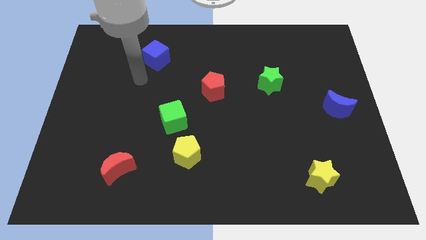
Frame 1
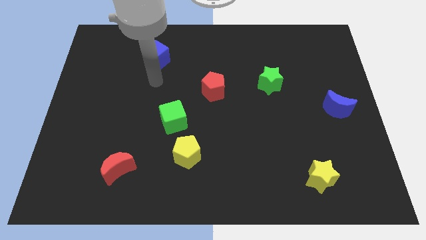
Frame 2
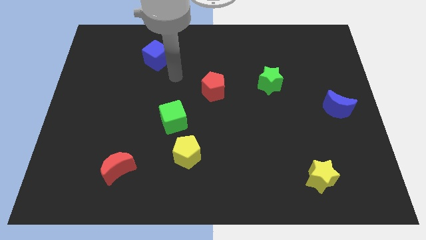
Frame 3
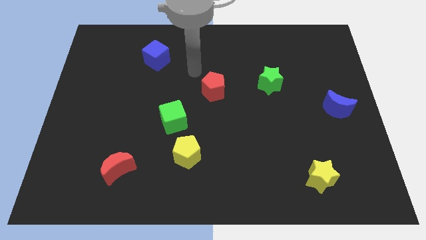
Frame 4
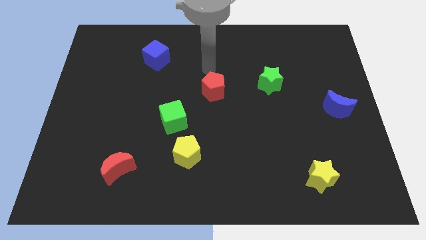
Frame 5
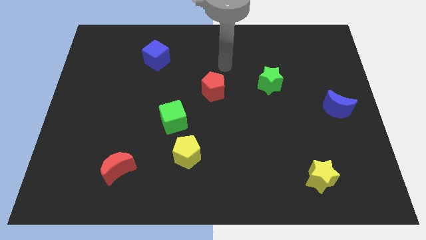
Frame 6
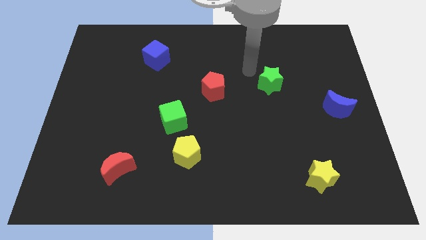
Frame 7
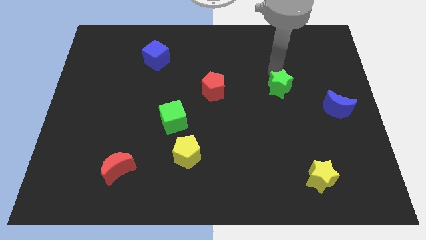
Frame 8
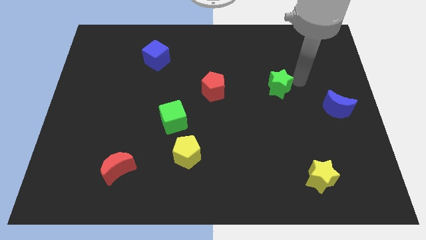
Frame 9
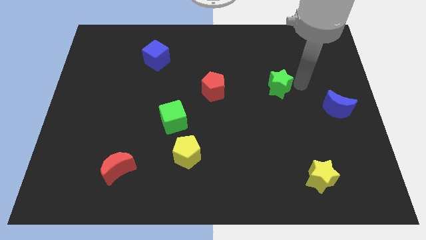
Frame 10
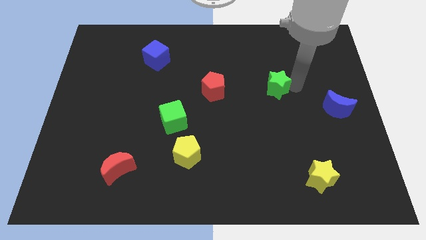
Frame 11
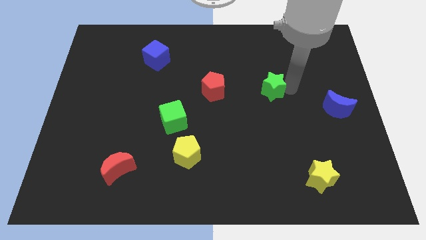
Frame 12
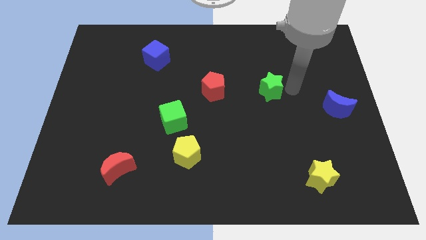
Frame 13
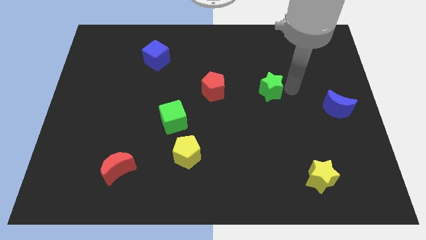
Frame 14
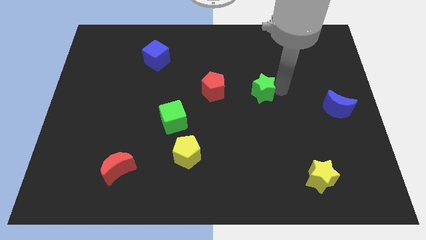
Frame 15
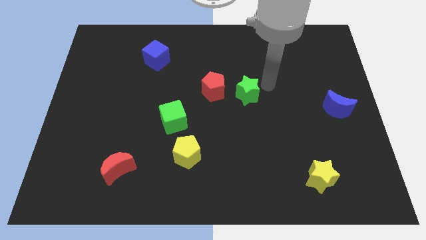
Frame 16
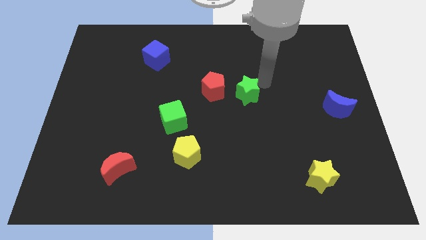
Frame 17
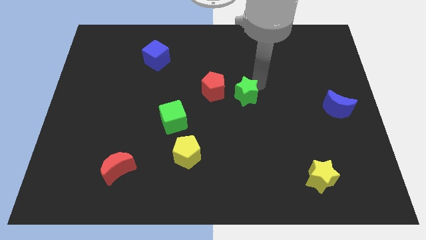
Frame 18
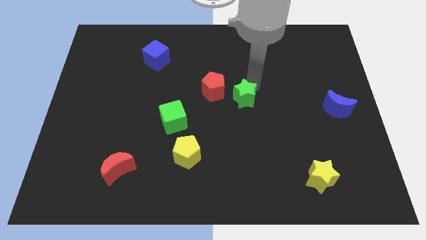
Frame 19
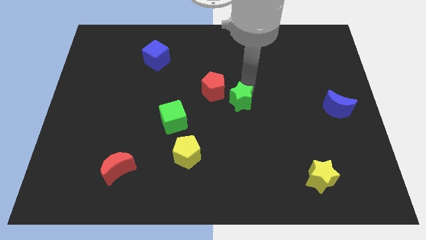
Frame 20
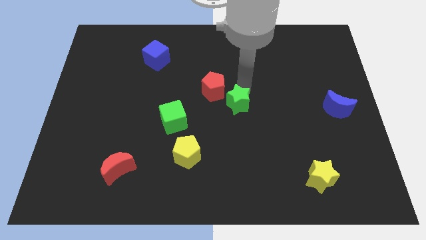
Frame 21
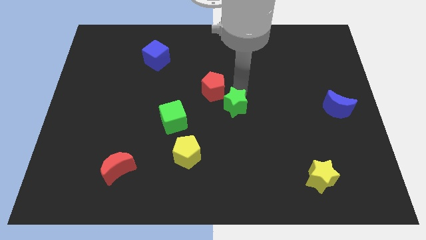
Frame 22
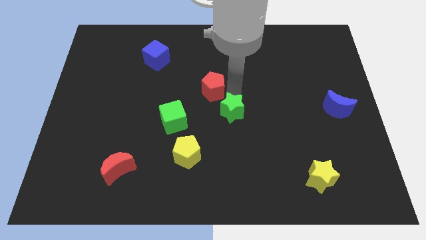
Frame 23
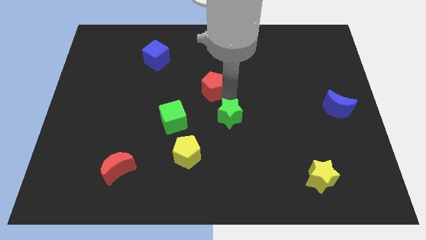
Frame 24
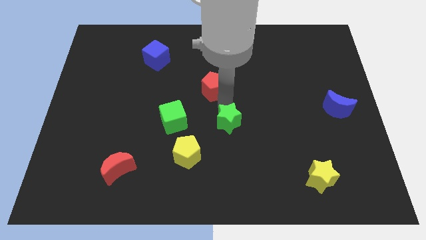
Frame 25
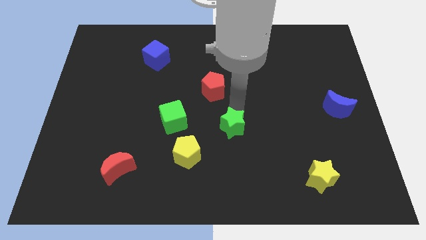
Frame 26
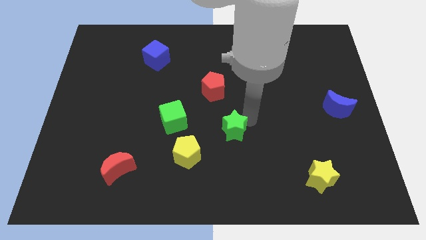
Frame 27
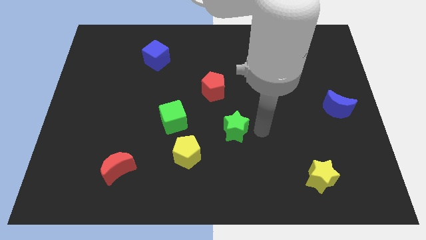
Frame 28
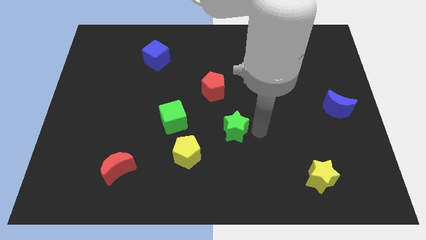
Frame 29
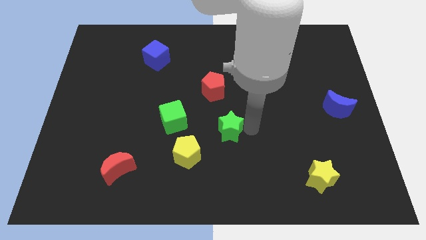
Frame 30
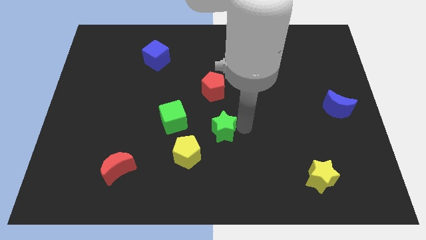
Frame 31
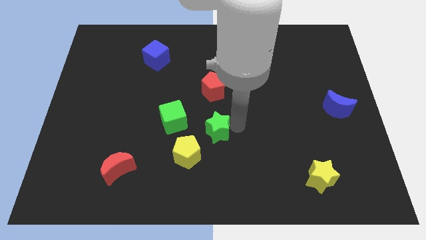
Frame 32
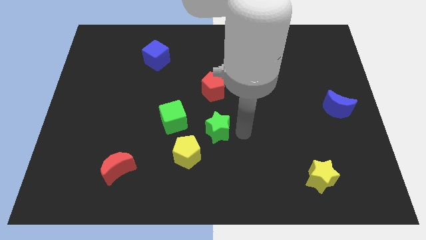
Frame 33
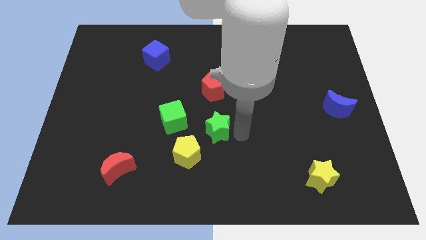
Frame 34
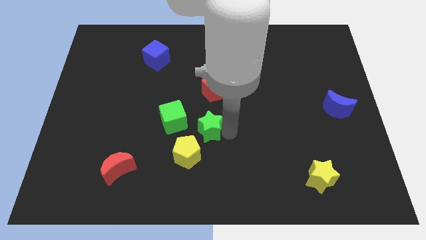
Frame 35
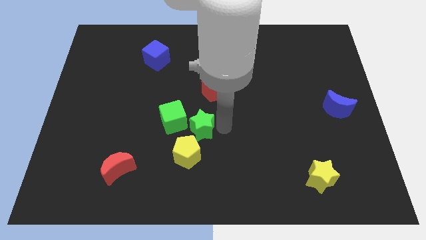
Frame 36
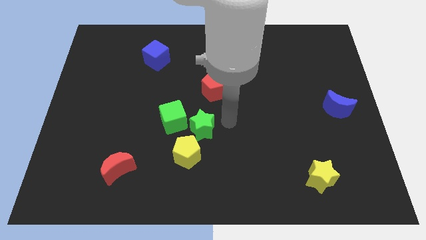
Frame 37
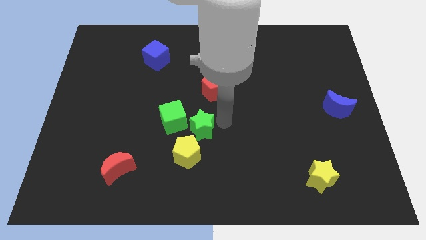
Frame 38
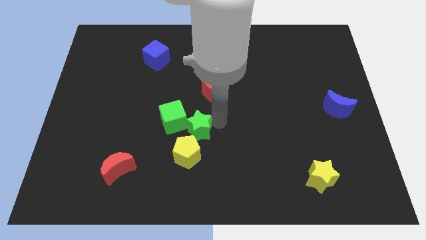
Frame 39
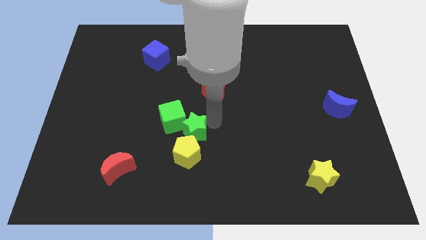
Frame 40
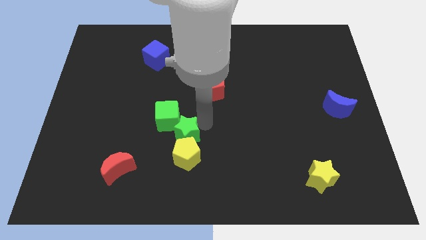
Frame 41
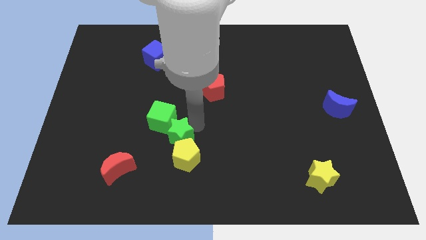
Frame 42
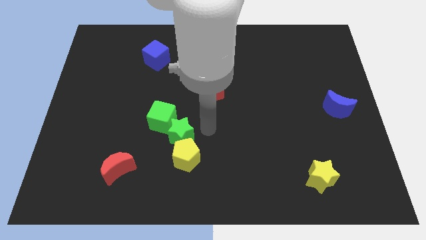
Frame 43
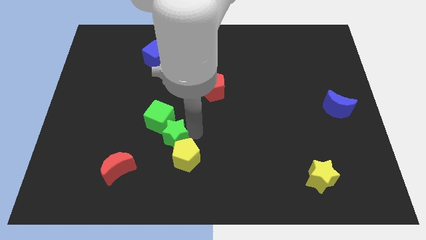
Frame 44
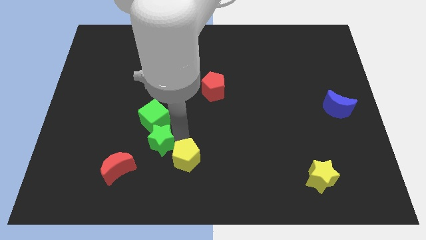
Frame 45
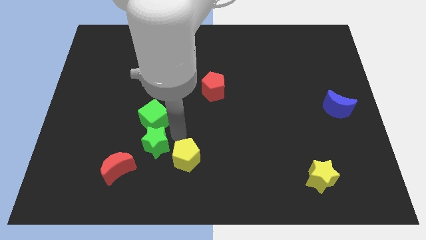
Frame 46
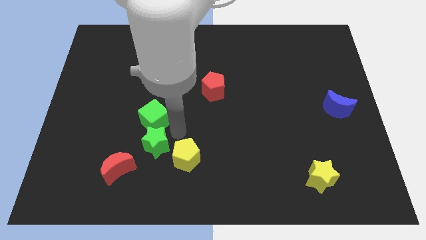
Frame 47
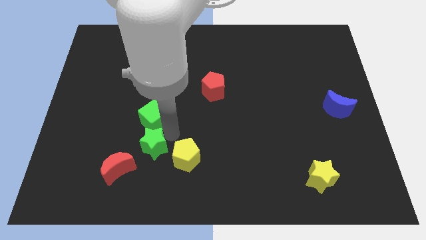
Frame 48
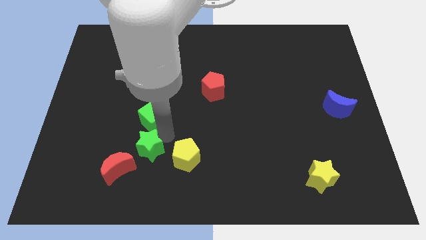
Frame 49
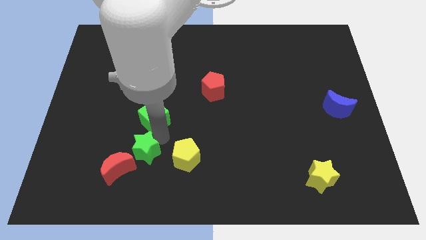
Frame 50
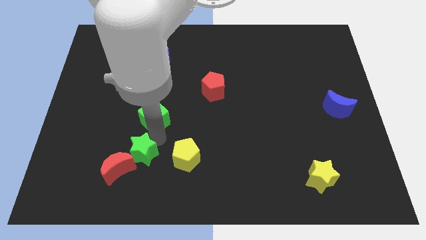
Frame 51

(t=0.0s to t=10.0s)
slide the green star next to the red moon

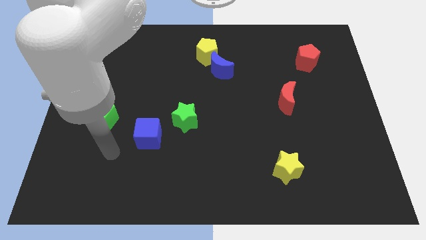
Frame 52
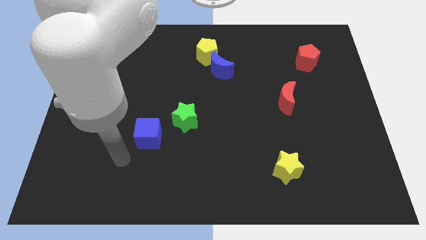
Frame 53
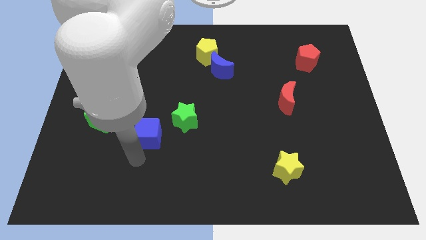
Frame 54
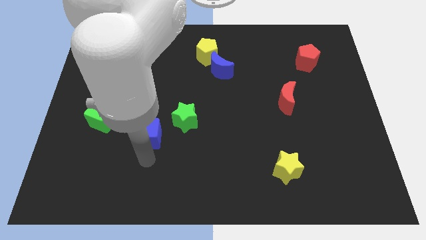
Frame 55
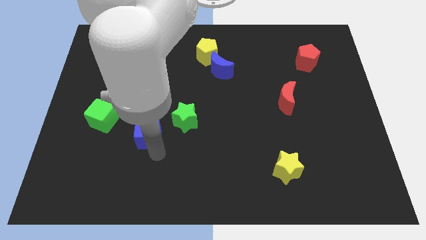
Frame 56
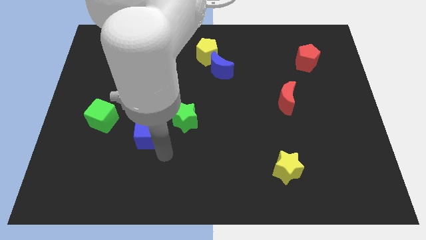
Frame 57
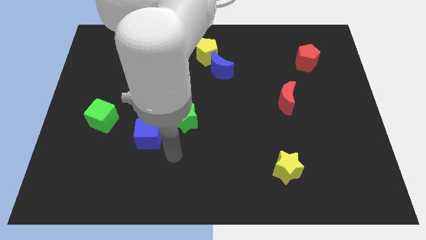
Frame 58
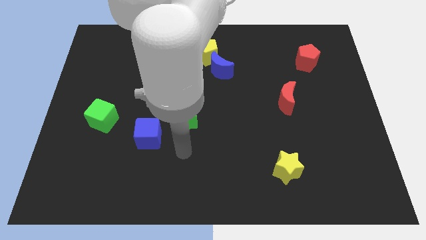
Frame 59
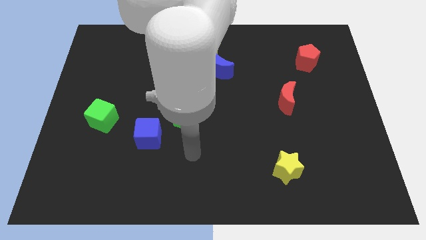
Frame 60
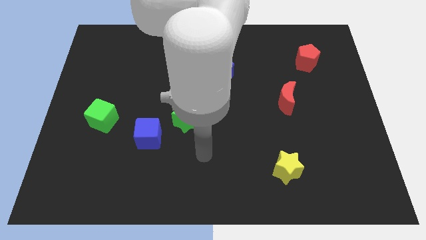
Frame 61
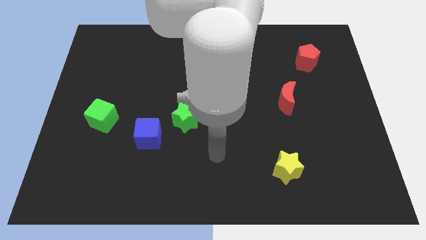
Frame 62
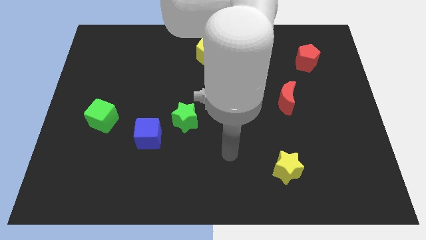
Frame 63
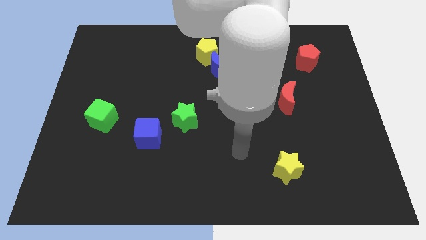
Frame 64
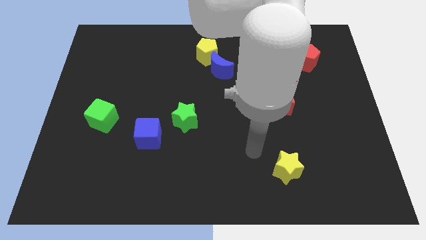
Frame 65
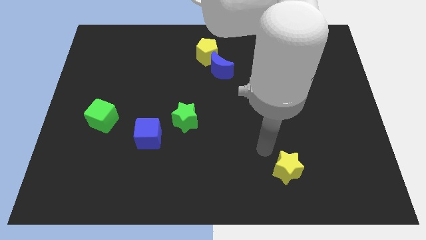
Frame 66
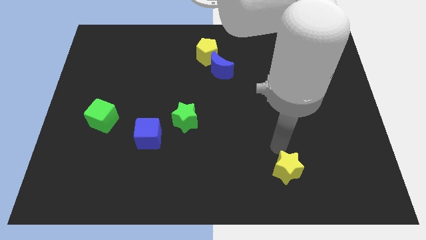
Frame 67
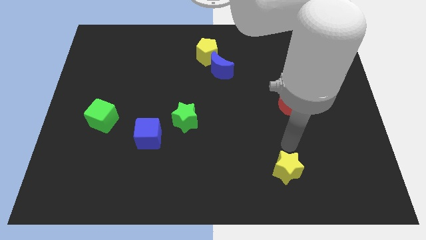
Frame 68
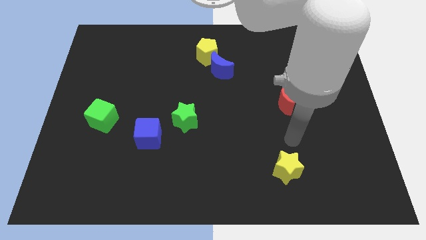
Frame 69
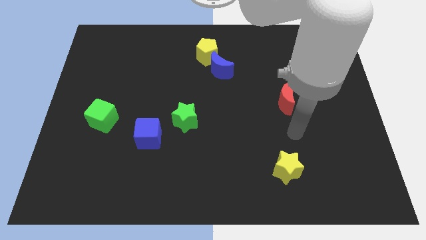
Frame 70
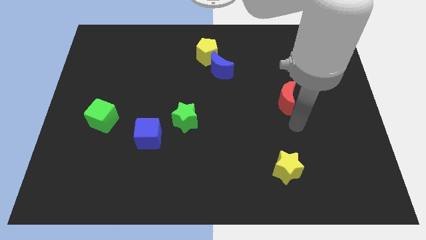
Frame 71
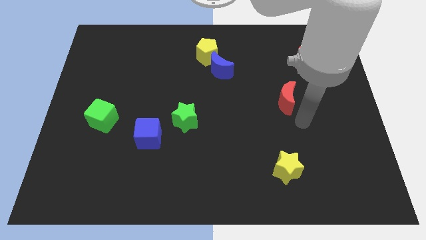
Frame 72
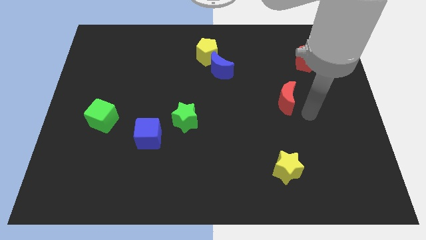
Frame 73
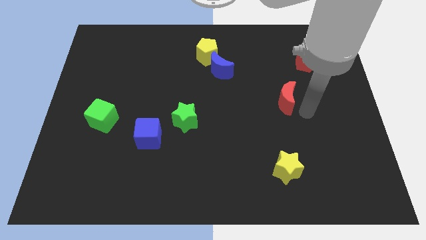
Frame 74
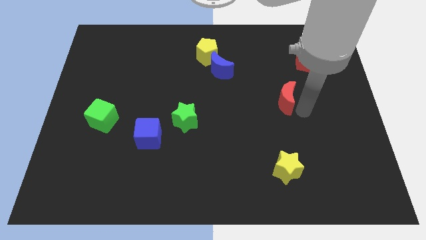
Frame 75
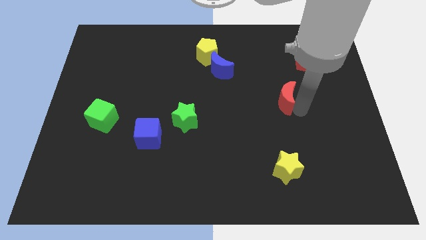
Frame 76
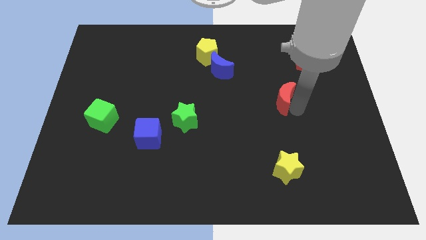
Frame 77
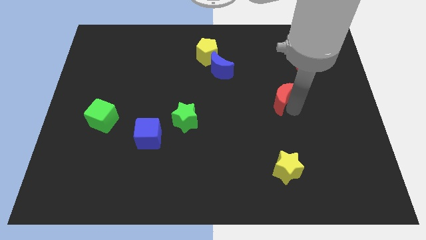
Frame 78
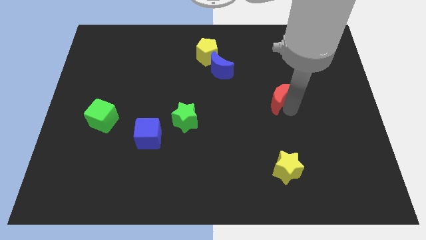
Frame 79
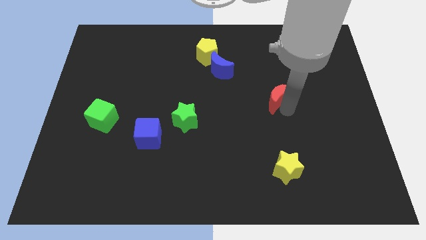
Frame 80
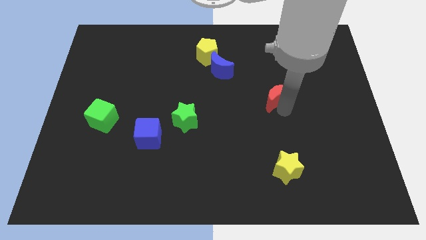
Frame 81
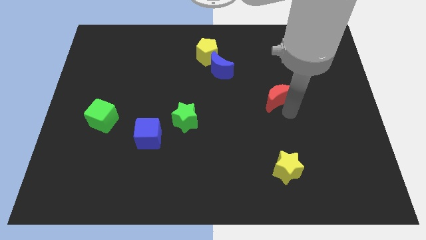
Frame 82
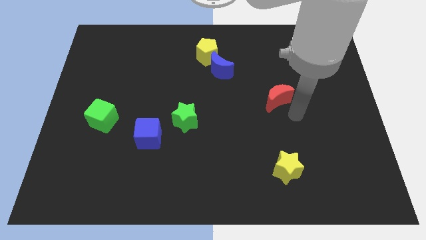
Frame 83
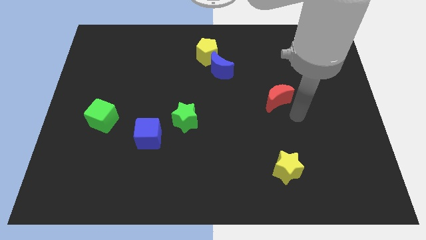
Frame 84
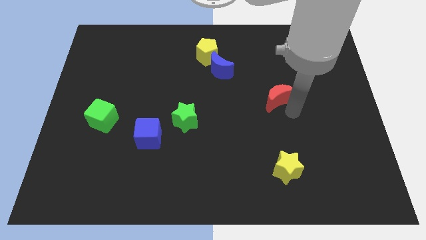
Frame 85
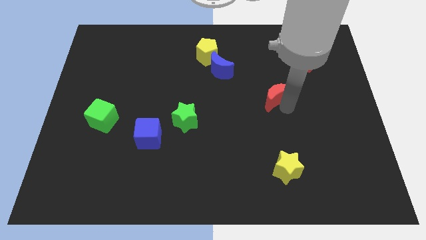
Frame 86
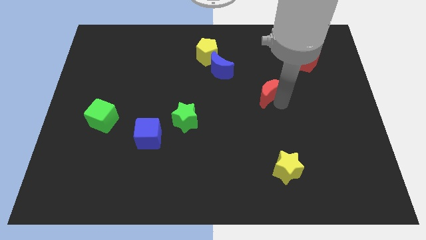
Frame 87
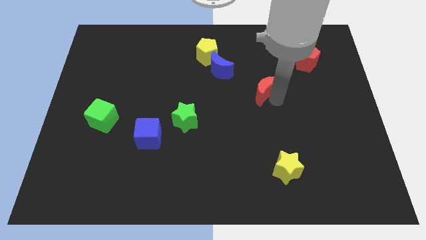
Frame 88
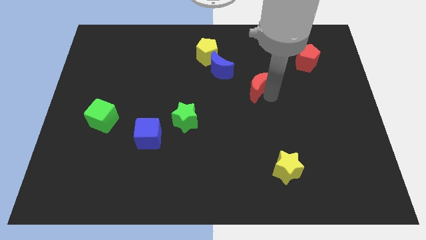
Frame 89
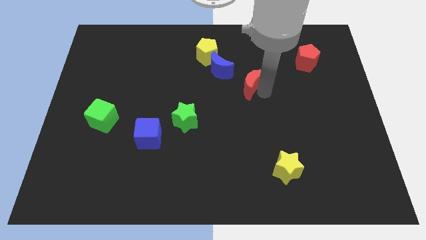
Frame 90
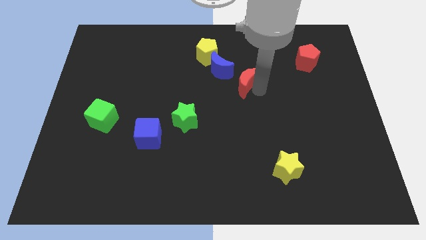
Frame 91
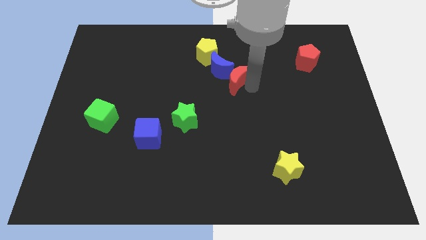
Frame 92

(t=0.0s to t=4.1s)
move the red moon close to the blue moon
